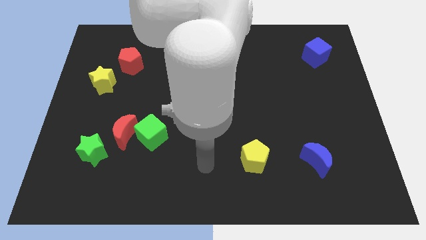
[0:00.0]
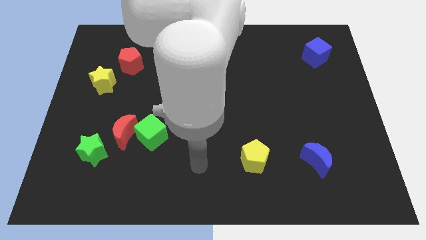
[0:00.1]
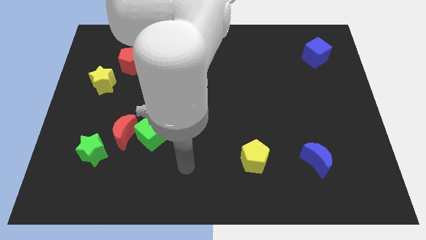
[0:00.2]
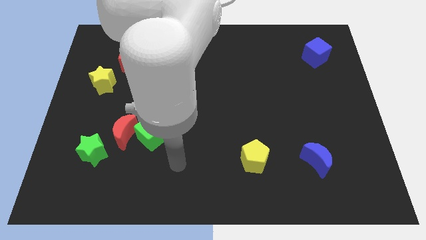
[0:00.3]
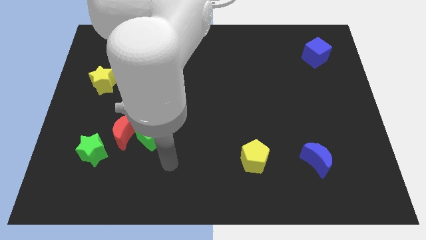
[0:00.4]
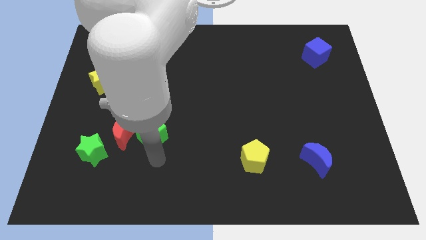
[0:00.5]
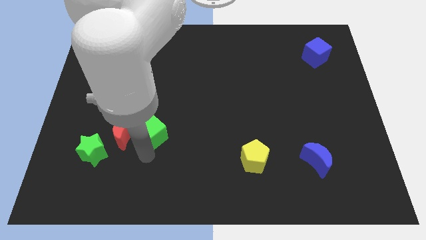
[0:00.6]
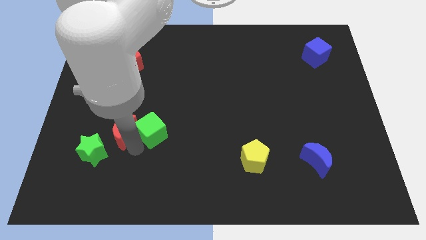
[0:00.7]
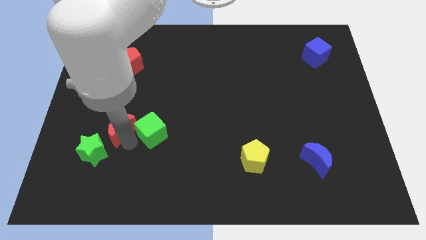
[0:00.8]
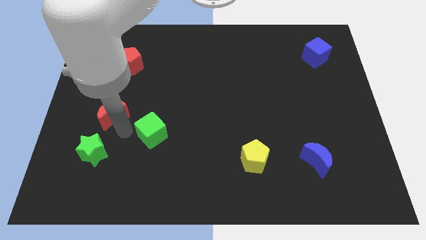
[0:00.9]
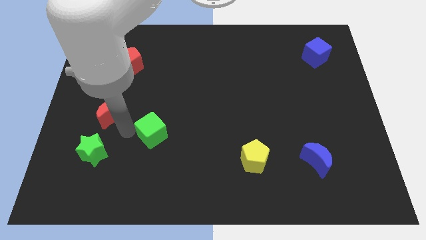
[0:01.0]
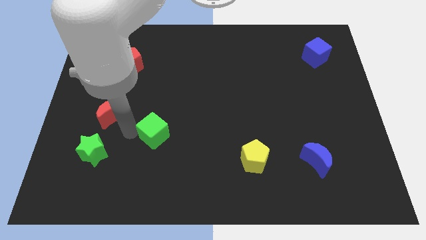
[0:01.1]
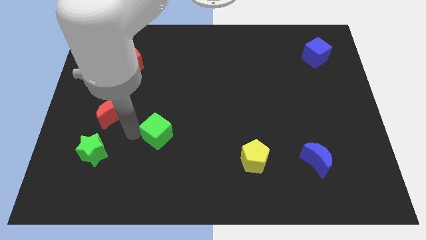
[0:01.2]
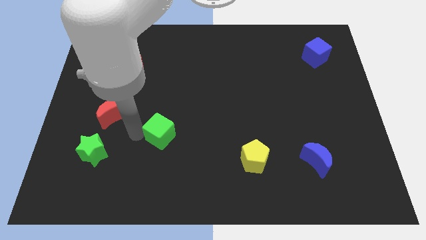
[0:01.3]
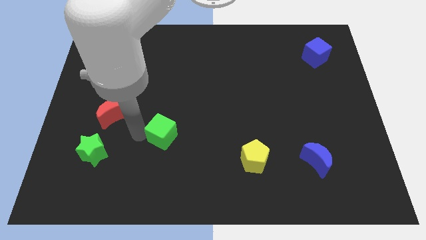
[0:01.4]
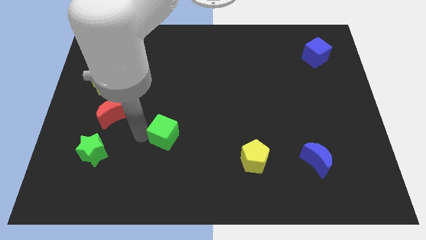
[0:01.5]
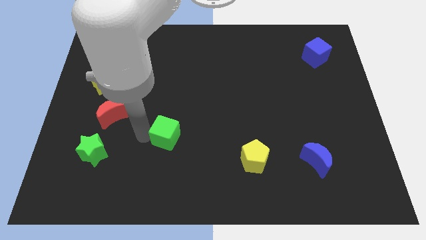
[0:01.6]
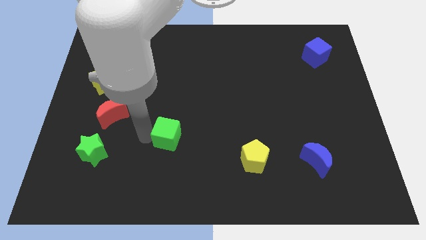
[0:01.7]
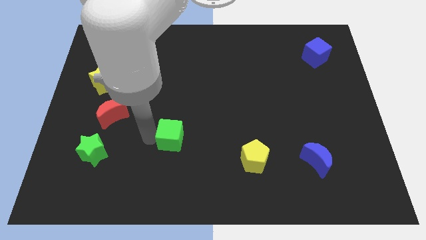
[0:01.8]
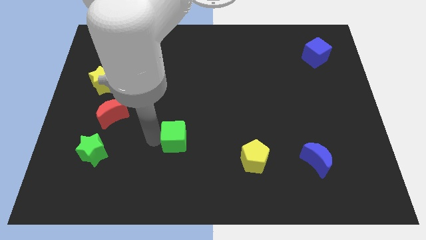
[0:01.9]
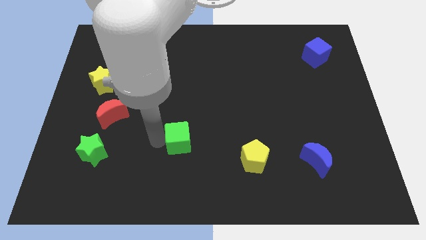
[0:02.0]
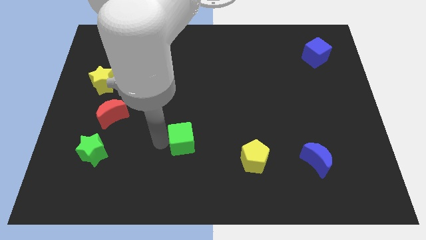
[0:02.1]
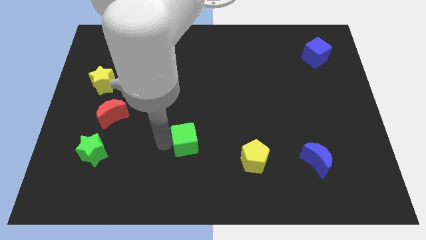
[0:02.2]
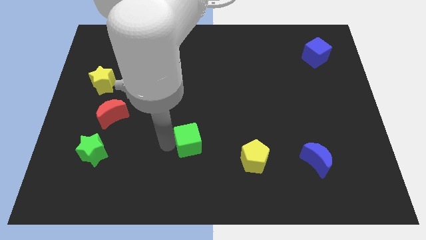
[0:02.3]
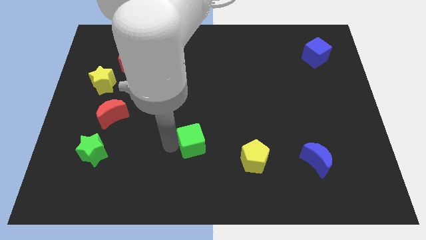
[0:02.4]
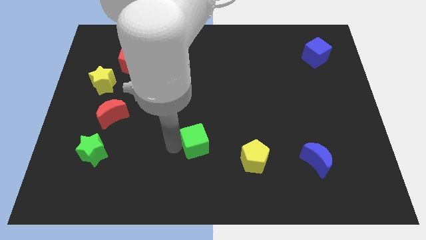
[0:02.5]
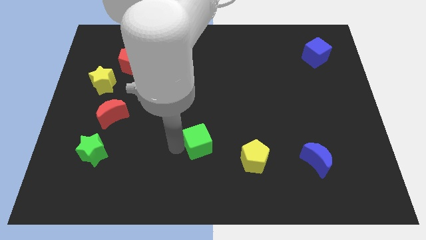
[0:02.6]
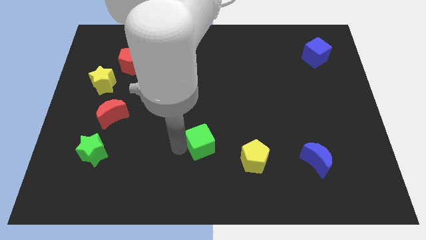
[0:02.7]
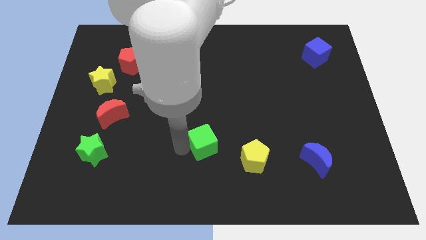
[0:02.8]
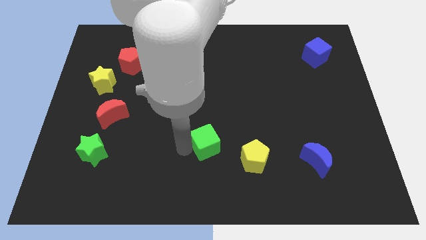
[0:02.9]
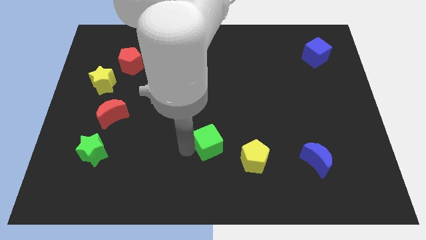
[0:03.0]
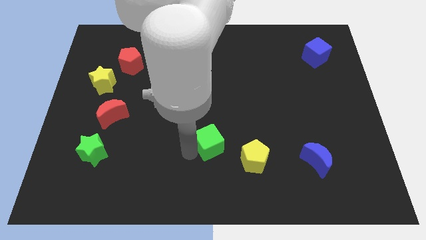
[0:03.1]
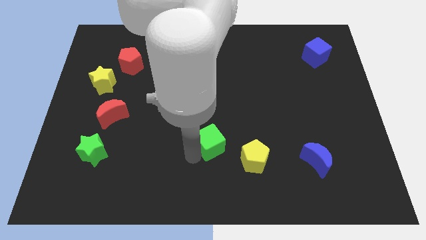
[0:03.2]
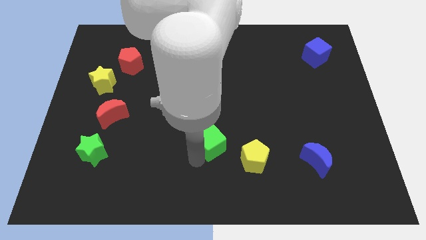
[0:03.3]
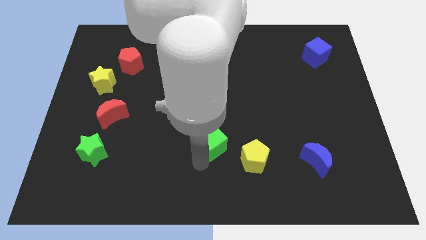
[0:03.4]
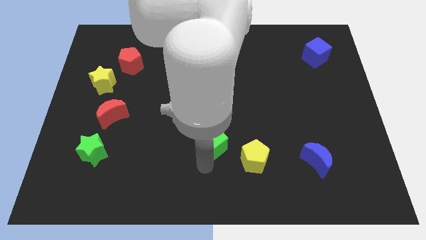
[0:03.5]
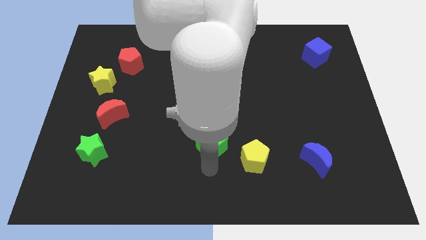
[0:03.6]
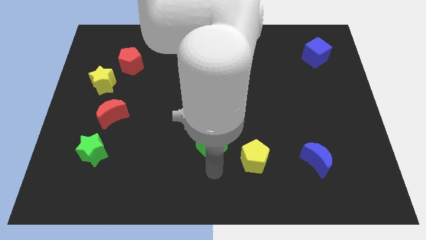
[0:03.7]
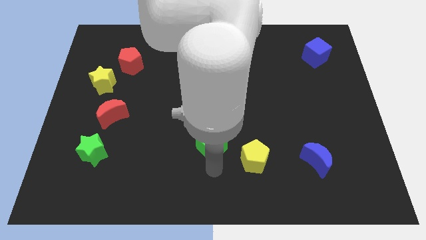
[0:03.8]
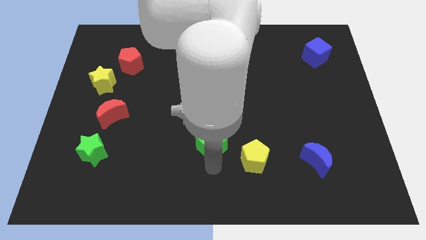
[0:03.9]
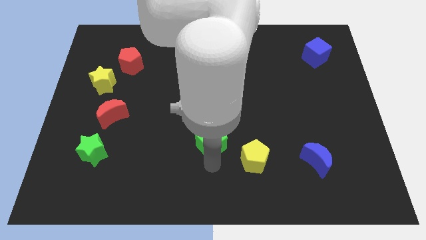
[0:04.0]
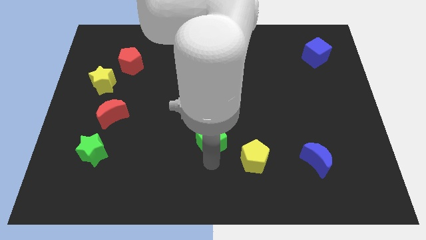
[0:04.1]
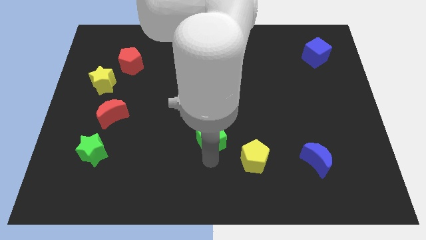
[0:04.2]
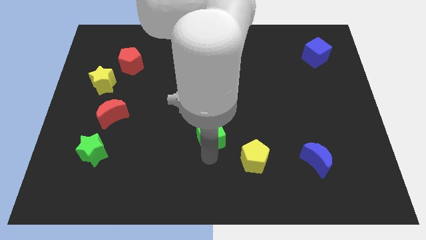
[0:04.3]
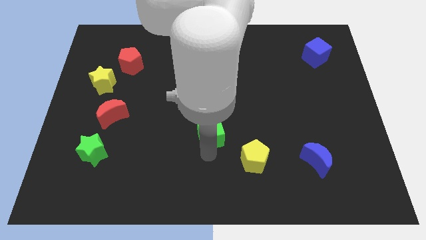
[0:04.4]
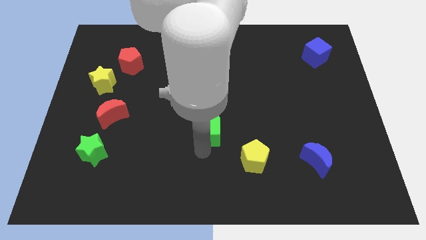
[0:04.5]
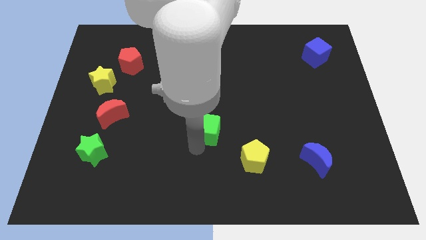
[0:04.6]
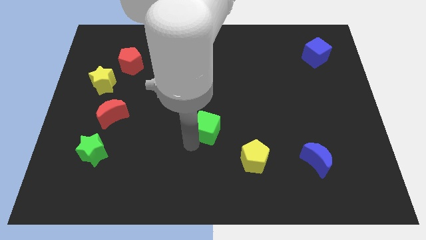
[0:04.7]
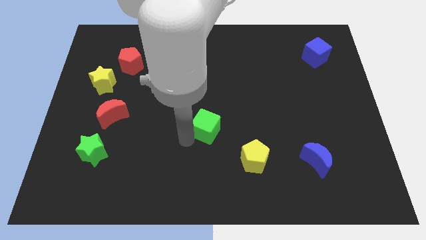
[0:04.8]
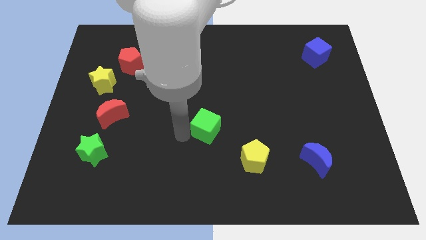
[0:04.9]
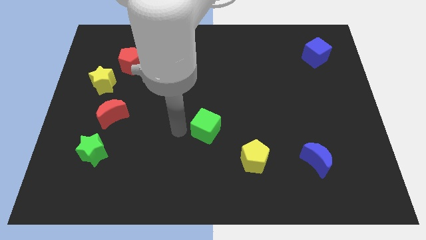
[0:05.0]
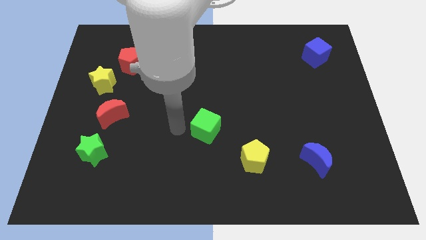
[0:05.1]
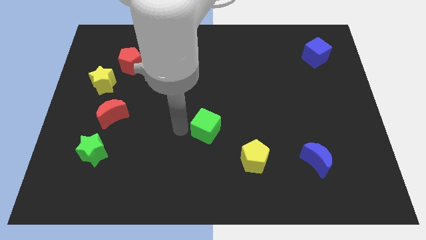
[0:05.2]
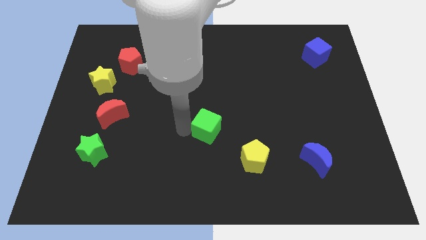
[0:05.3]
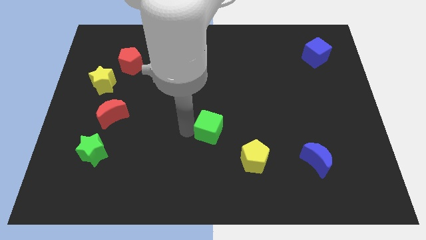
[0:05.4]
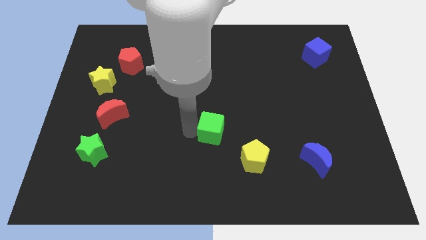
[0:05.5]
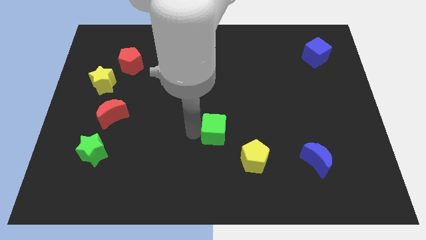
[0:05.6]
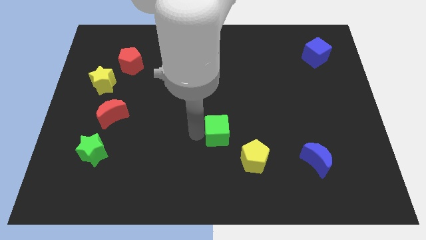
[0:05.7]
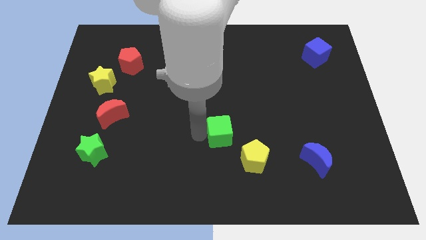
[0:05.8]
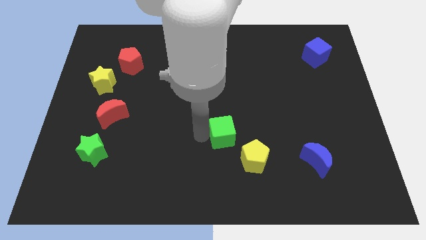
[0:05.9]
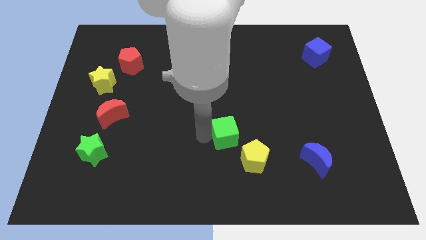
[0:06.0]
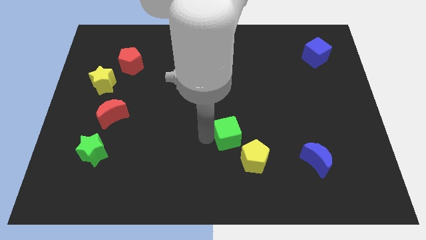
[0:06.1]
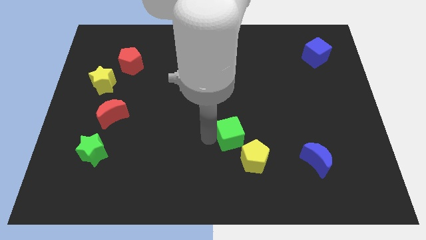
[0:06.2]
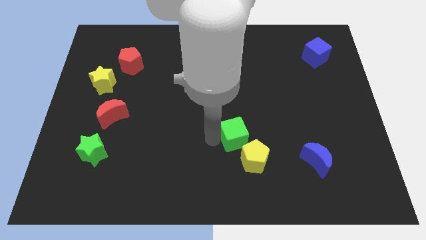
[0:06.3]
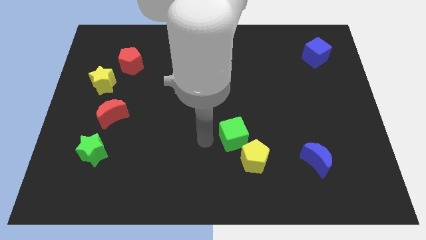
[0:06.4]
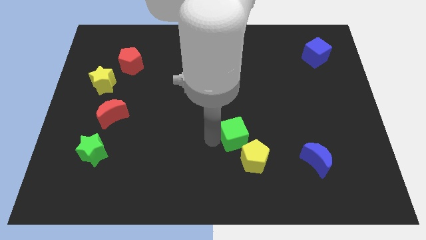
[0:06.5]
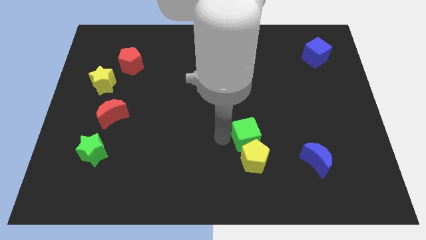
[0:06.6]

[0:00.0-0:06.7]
move the green cube to the right

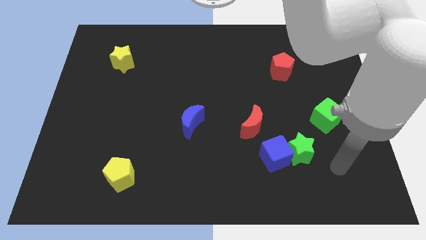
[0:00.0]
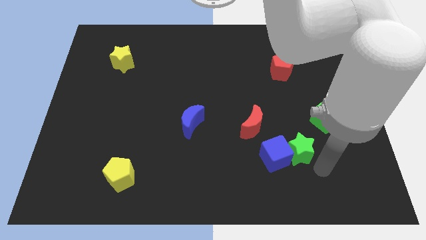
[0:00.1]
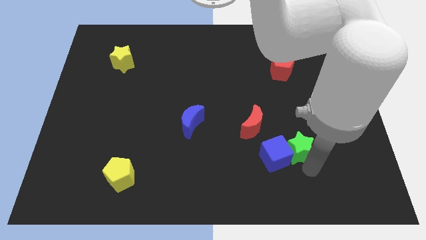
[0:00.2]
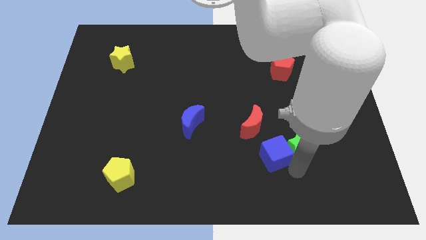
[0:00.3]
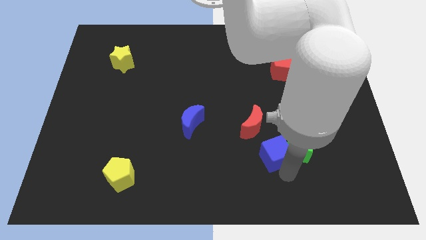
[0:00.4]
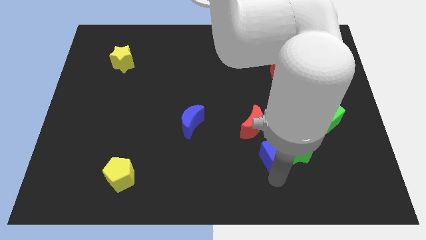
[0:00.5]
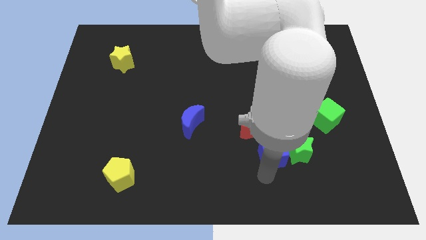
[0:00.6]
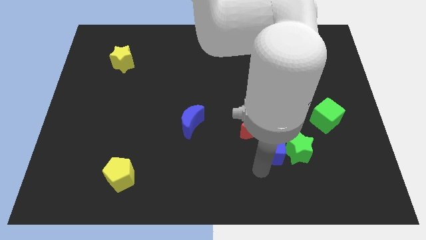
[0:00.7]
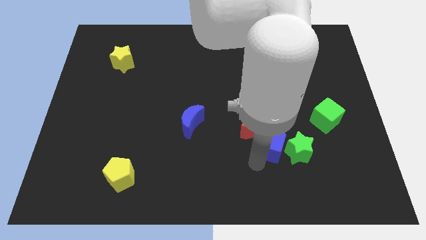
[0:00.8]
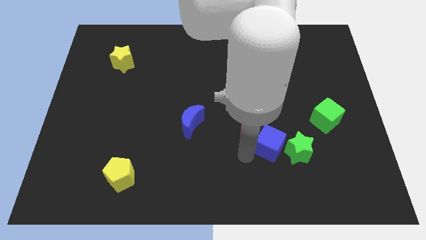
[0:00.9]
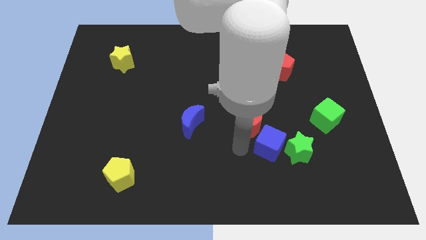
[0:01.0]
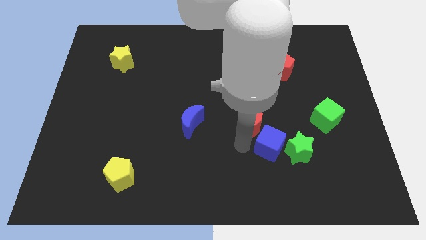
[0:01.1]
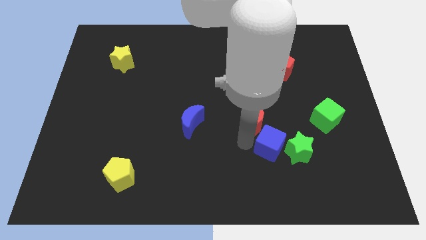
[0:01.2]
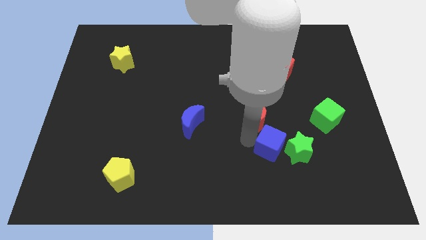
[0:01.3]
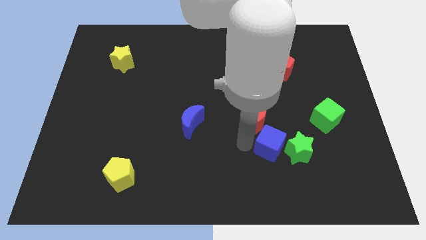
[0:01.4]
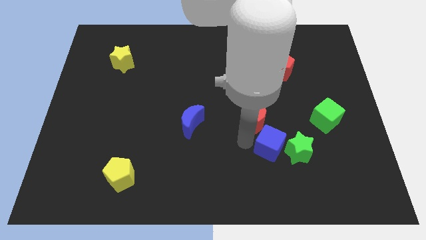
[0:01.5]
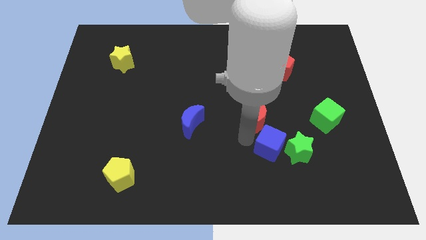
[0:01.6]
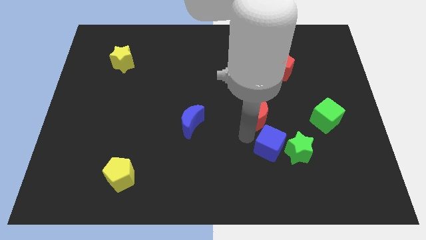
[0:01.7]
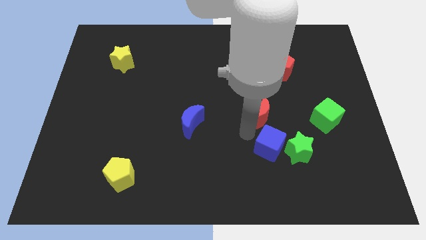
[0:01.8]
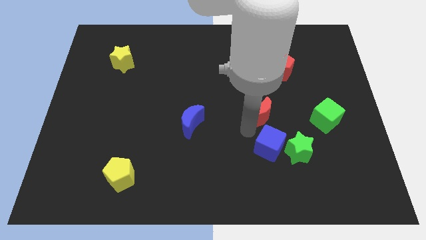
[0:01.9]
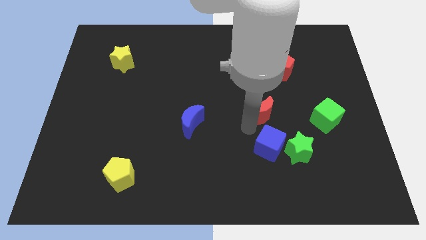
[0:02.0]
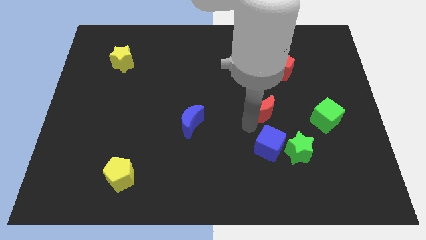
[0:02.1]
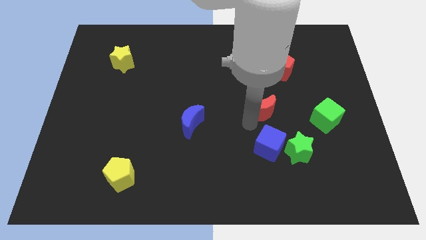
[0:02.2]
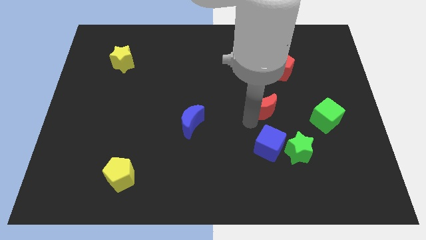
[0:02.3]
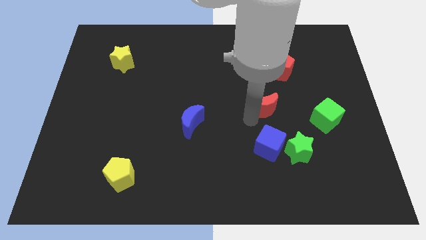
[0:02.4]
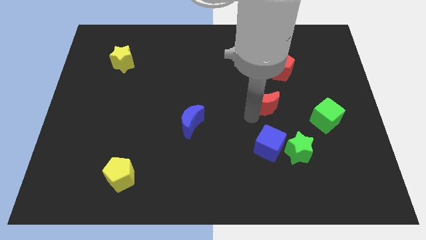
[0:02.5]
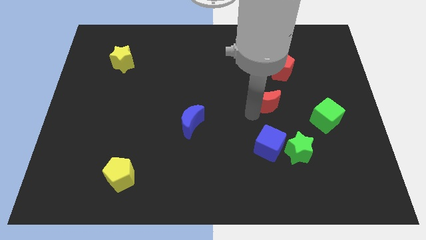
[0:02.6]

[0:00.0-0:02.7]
push the red moon upwards and right diagonally somewhat
